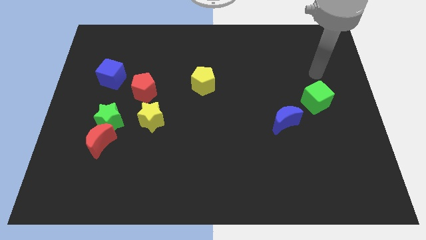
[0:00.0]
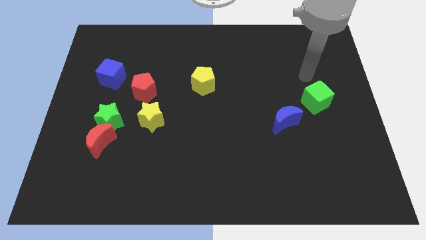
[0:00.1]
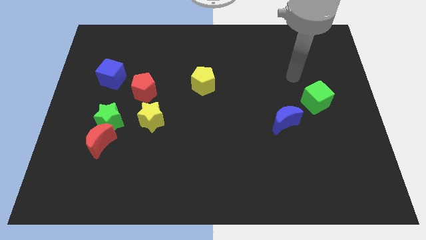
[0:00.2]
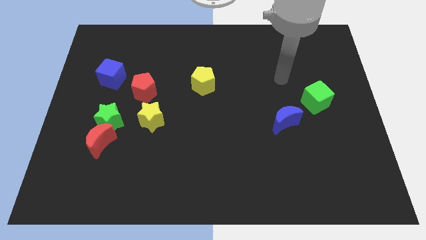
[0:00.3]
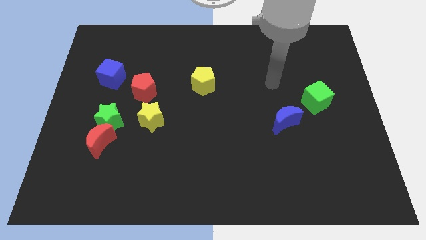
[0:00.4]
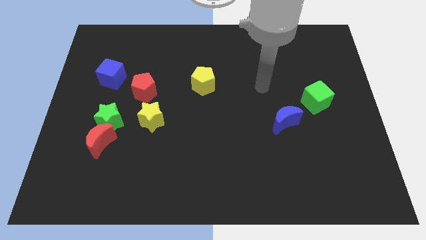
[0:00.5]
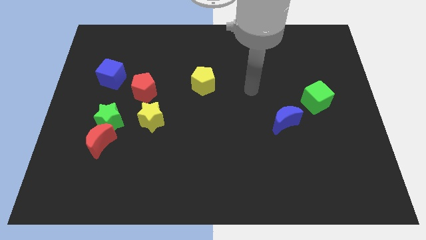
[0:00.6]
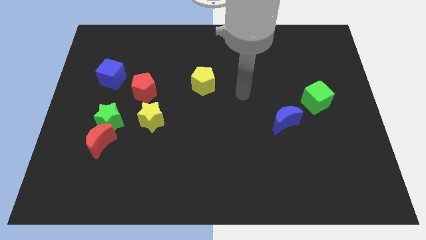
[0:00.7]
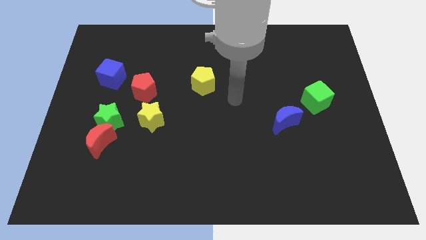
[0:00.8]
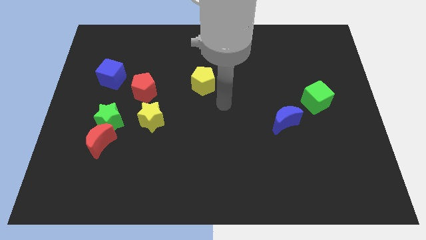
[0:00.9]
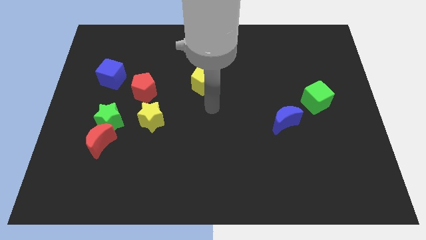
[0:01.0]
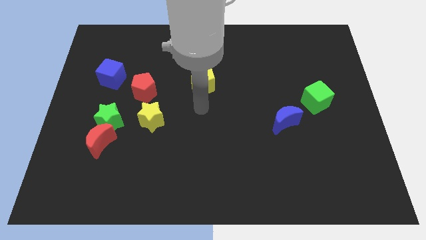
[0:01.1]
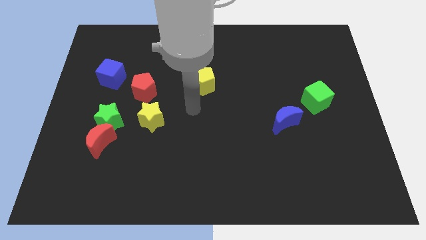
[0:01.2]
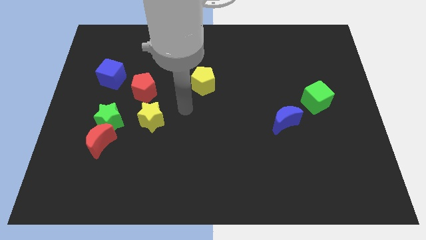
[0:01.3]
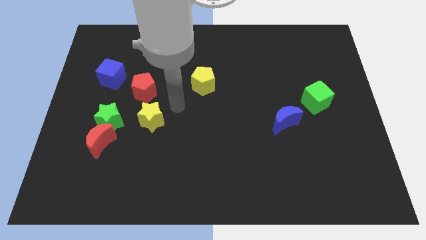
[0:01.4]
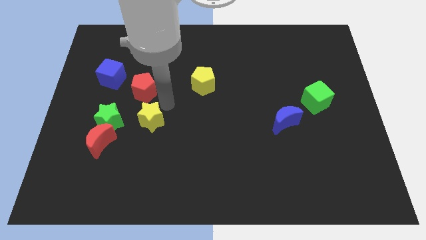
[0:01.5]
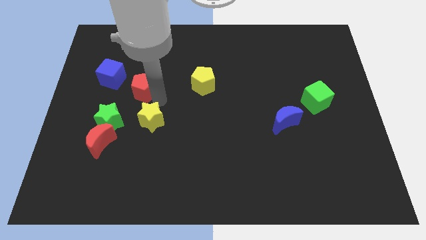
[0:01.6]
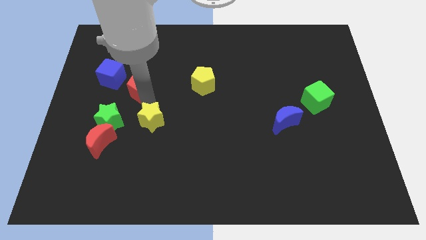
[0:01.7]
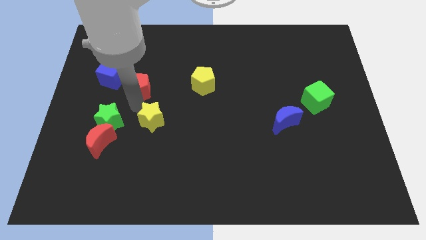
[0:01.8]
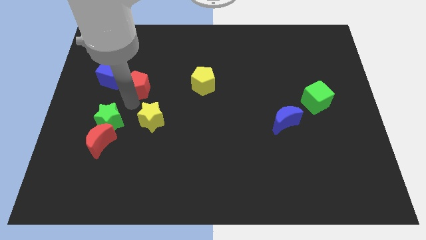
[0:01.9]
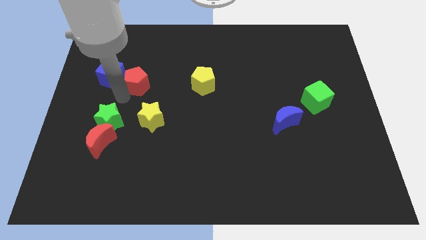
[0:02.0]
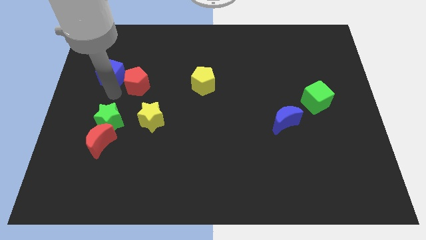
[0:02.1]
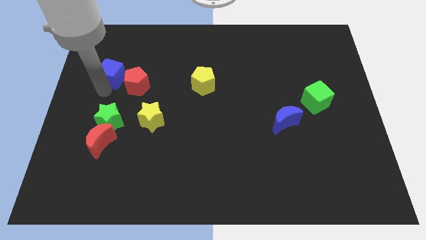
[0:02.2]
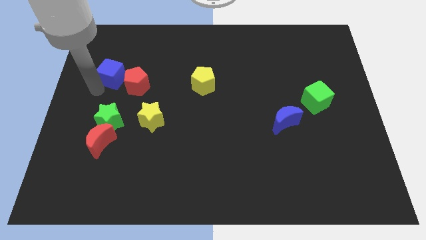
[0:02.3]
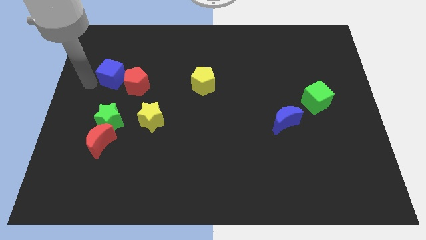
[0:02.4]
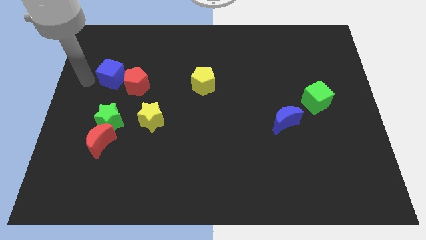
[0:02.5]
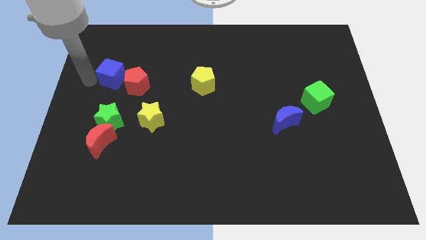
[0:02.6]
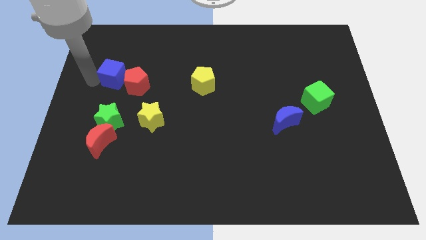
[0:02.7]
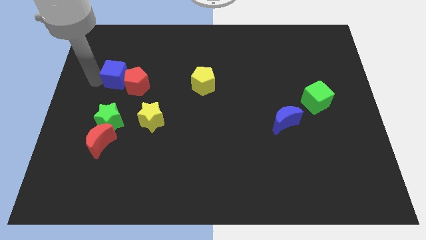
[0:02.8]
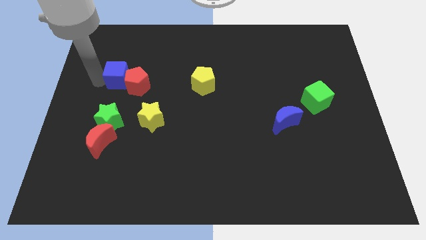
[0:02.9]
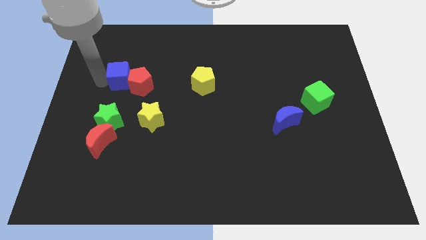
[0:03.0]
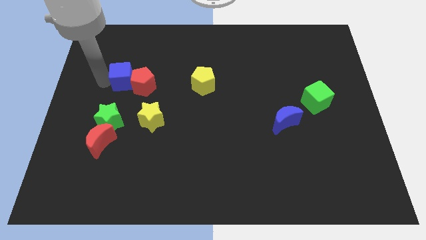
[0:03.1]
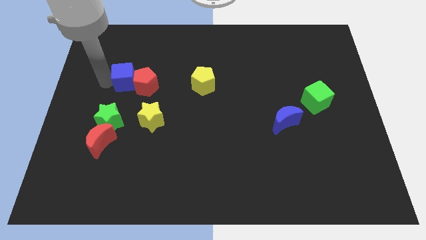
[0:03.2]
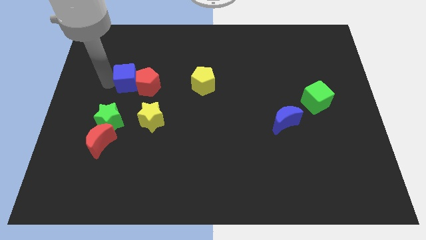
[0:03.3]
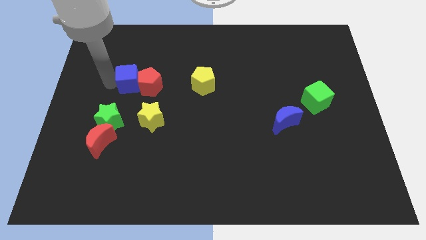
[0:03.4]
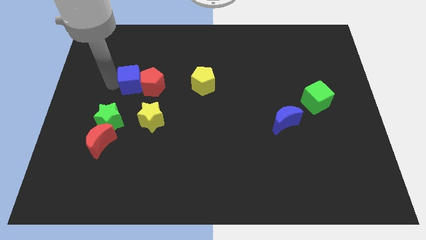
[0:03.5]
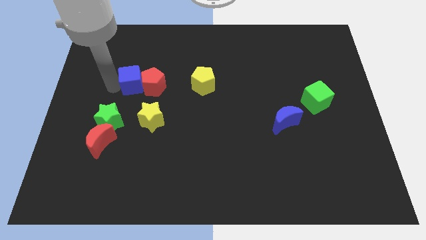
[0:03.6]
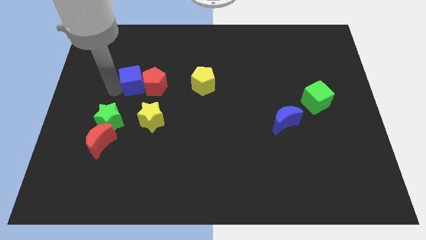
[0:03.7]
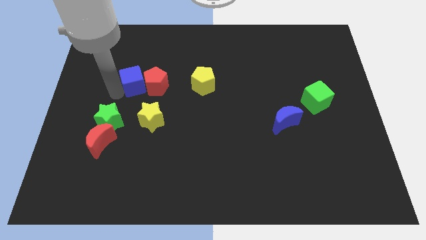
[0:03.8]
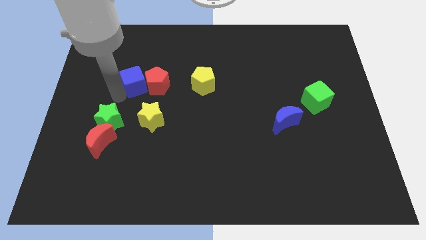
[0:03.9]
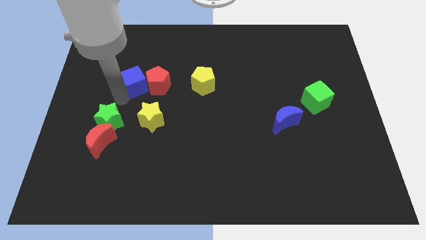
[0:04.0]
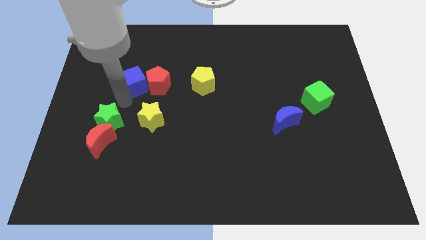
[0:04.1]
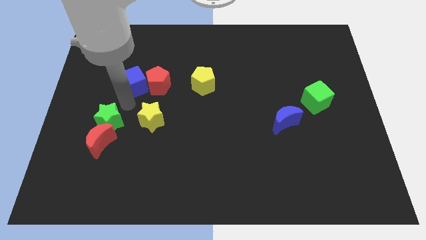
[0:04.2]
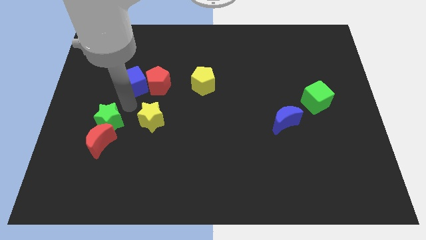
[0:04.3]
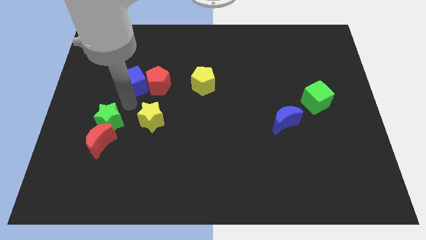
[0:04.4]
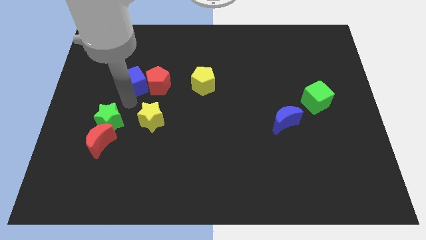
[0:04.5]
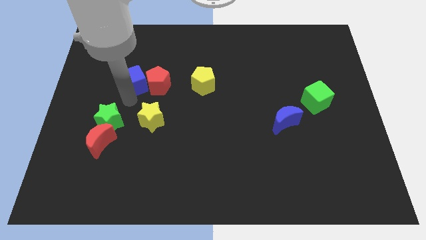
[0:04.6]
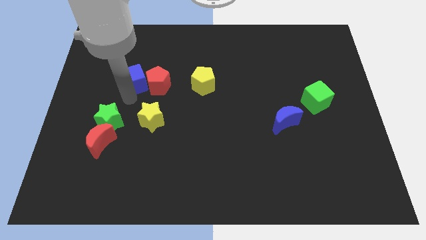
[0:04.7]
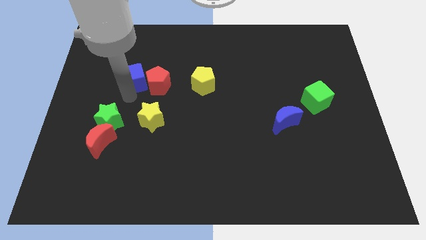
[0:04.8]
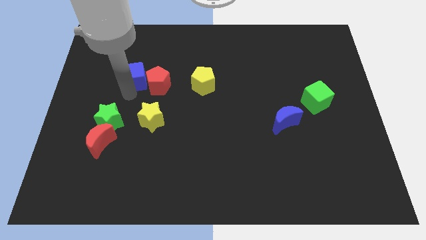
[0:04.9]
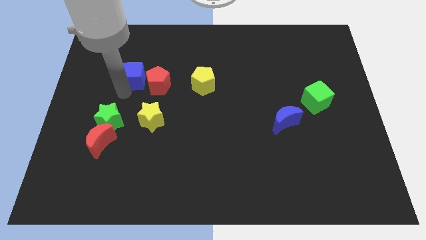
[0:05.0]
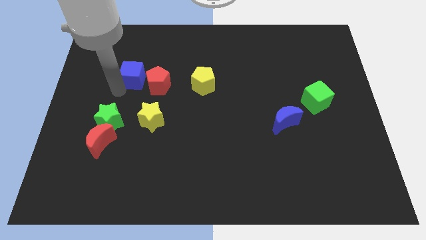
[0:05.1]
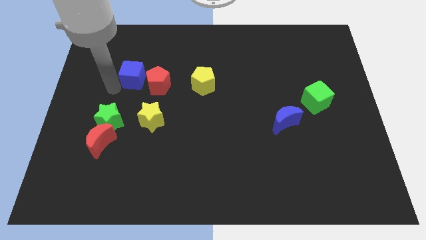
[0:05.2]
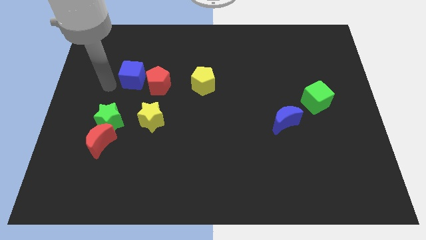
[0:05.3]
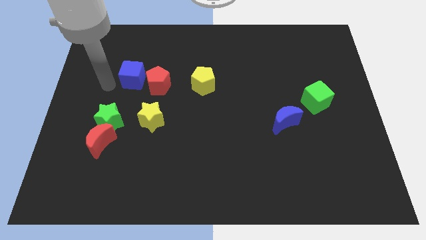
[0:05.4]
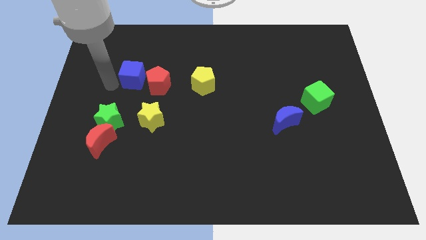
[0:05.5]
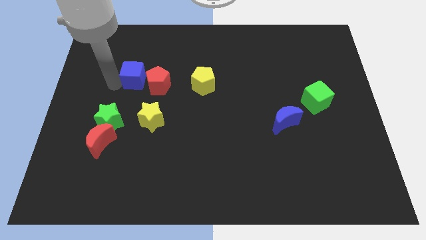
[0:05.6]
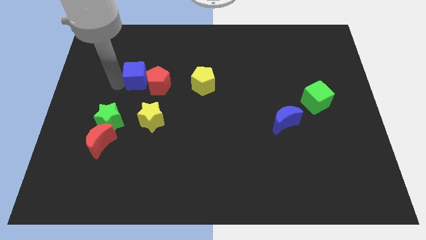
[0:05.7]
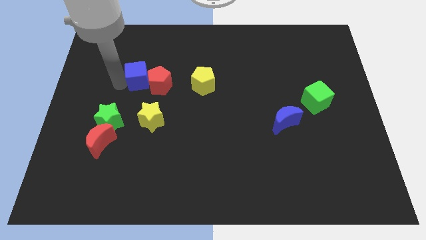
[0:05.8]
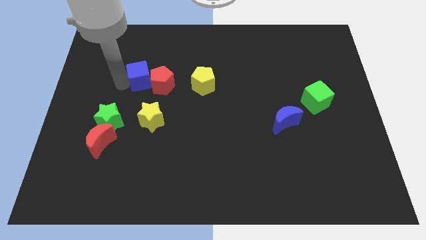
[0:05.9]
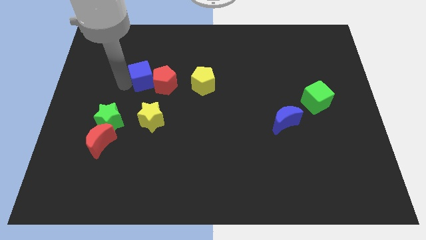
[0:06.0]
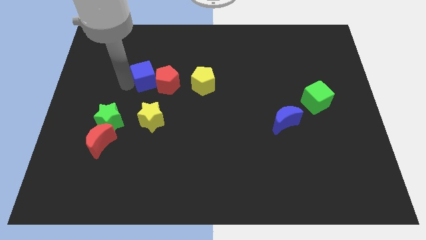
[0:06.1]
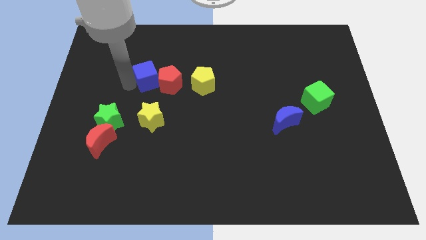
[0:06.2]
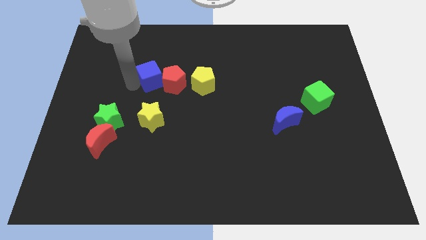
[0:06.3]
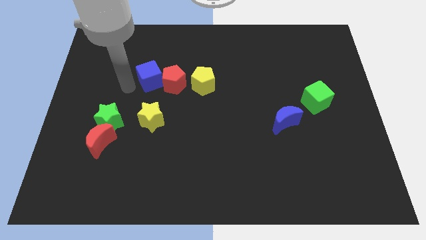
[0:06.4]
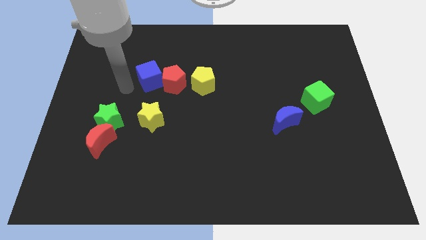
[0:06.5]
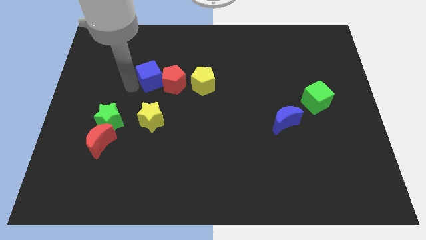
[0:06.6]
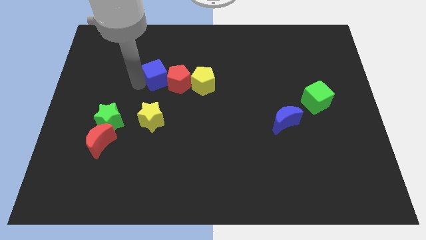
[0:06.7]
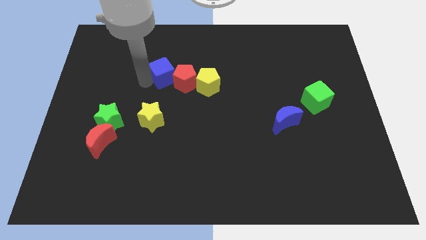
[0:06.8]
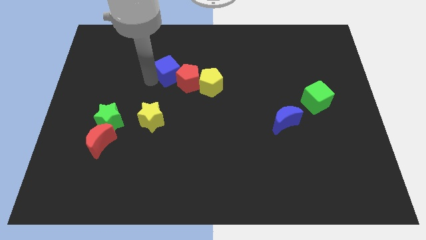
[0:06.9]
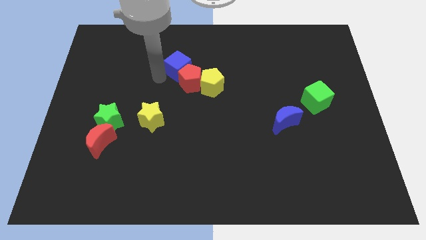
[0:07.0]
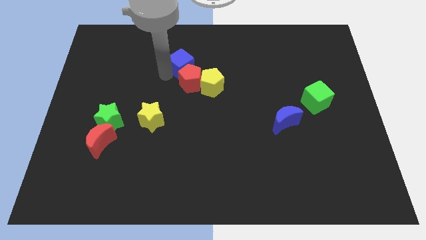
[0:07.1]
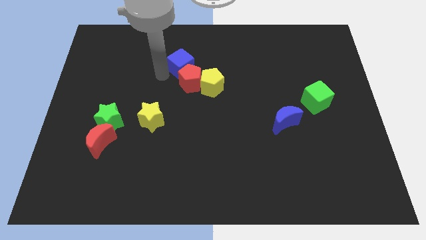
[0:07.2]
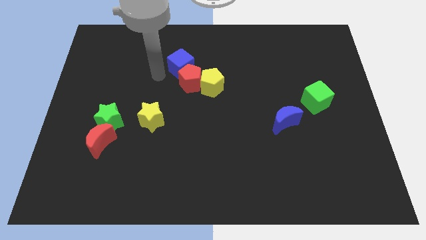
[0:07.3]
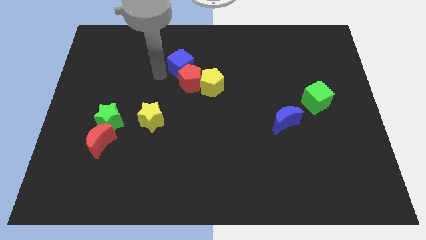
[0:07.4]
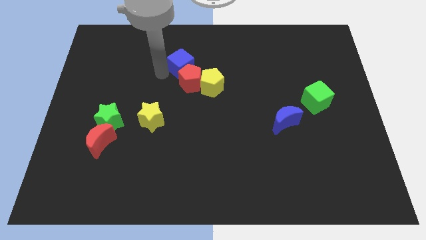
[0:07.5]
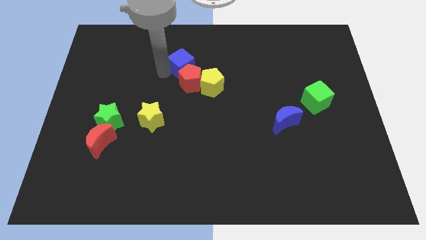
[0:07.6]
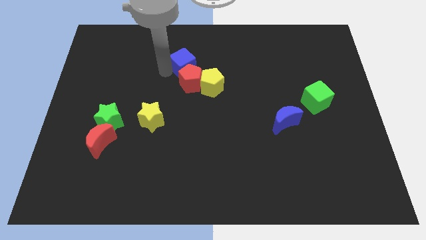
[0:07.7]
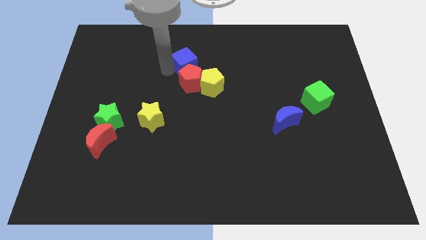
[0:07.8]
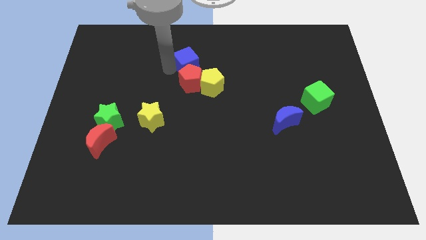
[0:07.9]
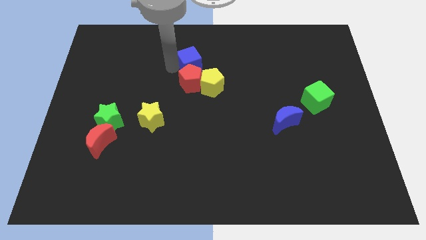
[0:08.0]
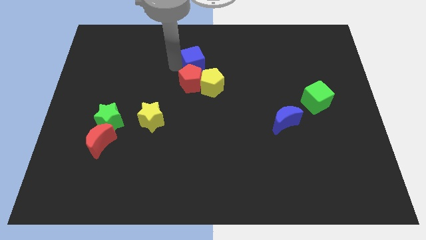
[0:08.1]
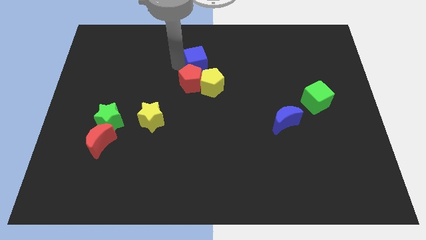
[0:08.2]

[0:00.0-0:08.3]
move the blue cube right
